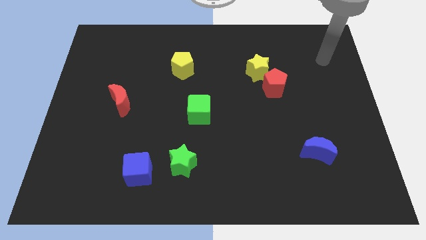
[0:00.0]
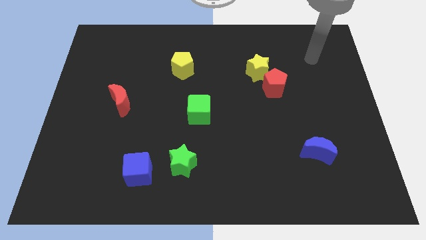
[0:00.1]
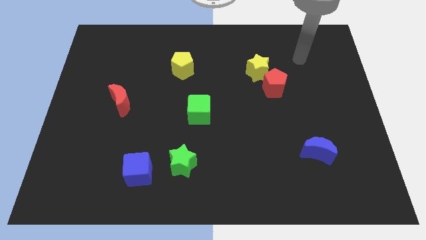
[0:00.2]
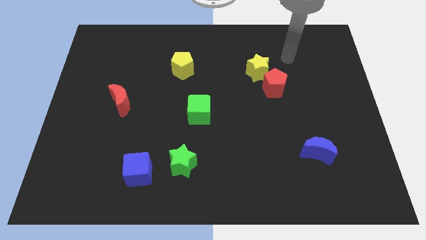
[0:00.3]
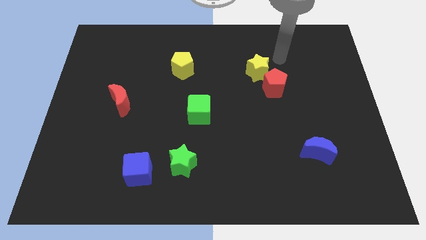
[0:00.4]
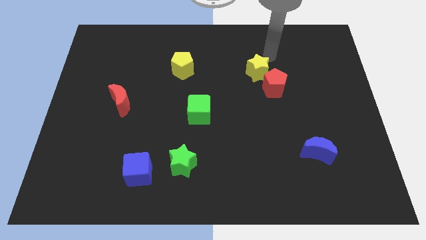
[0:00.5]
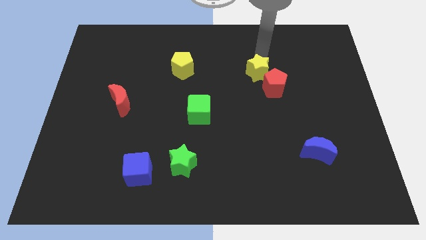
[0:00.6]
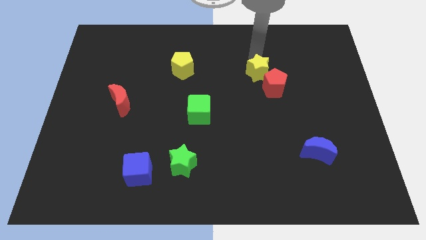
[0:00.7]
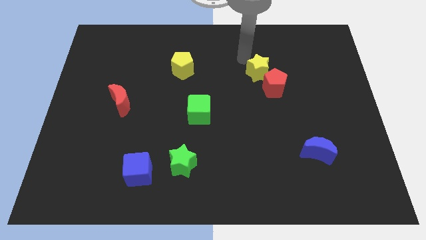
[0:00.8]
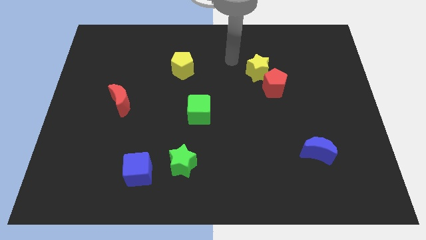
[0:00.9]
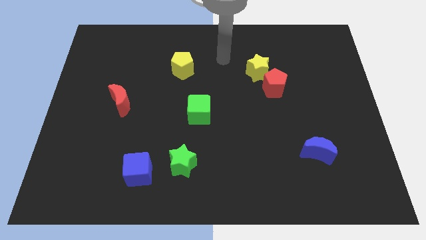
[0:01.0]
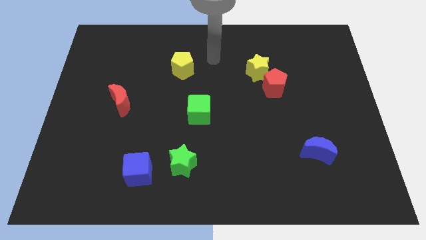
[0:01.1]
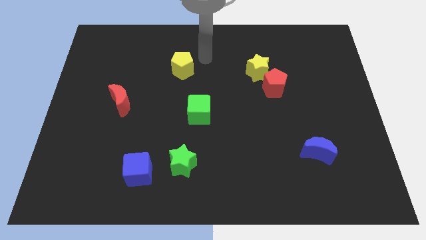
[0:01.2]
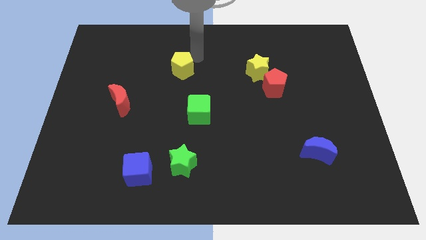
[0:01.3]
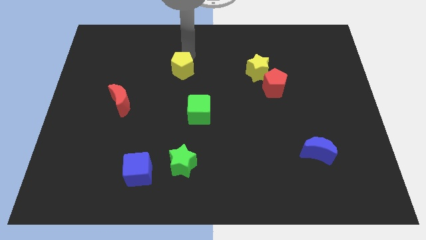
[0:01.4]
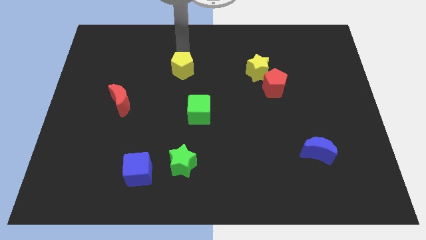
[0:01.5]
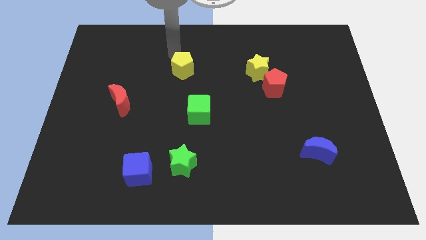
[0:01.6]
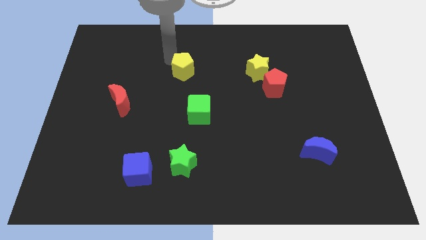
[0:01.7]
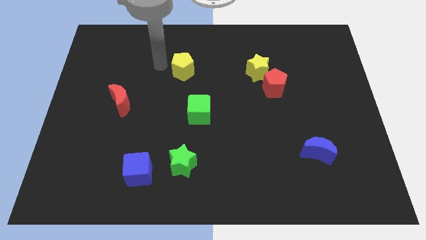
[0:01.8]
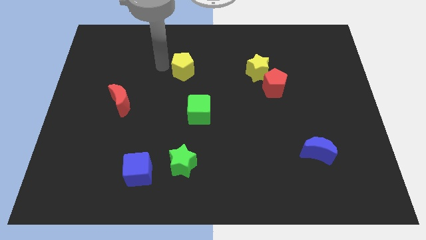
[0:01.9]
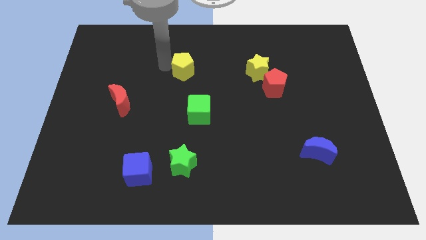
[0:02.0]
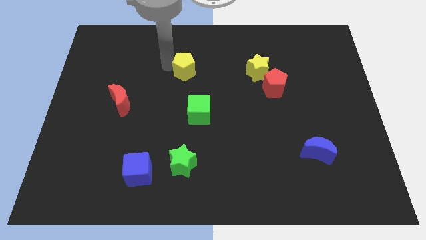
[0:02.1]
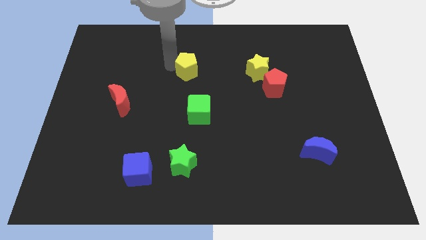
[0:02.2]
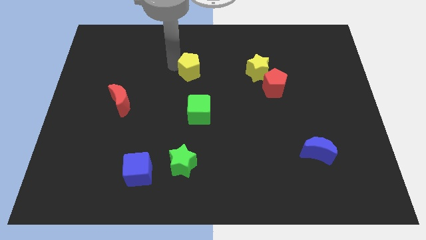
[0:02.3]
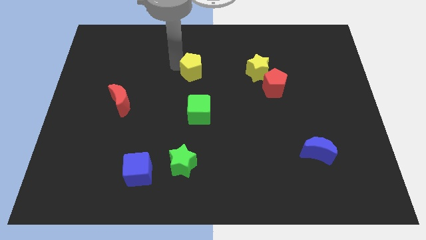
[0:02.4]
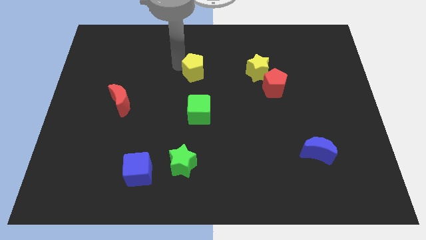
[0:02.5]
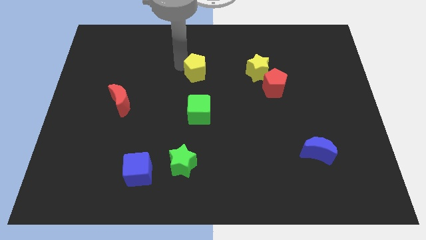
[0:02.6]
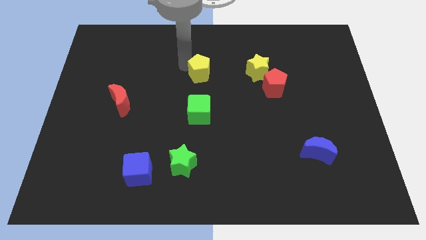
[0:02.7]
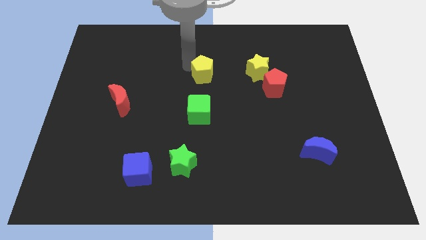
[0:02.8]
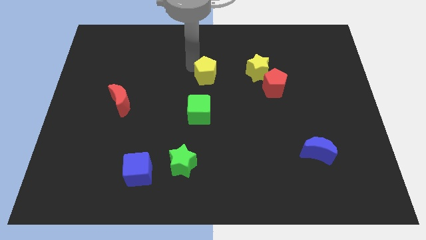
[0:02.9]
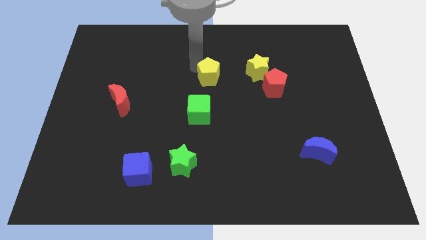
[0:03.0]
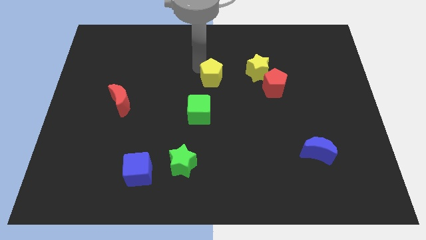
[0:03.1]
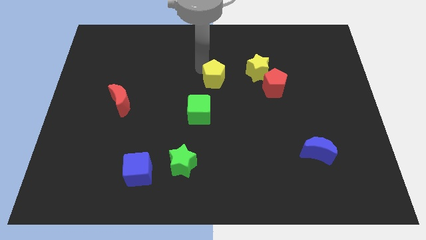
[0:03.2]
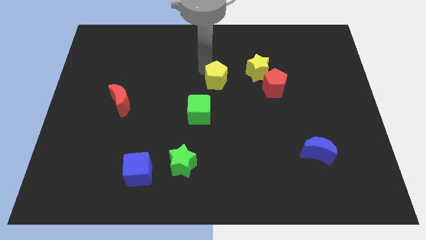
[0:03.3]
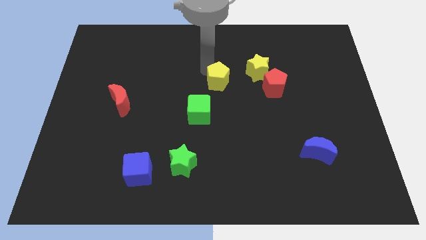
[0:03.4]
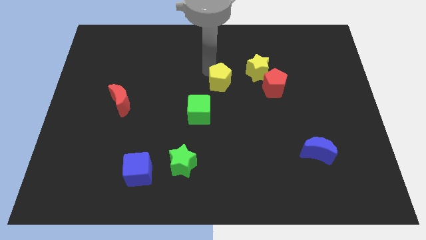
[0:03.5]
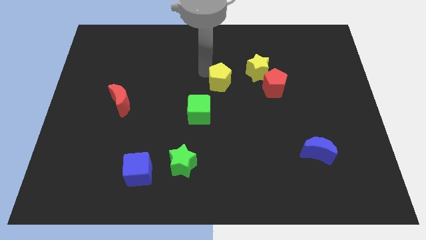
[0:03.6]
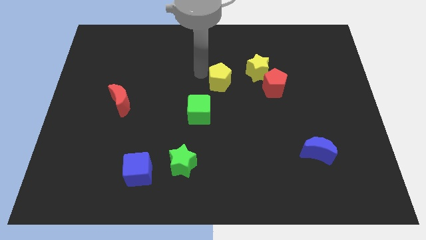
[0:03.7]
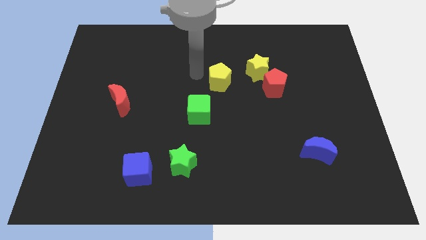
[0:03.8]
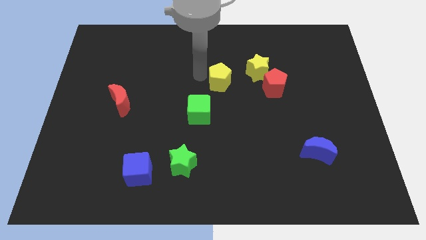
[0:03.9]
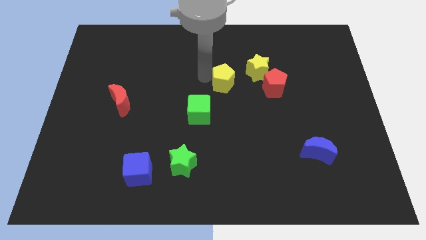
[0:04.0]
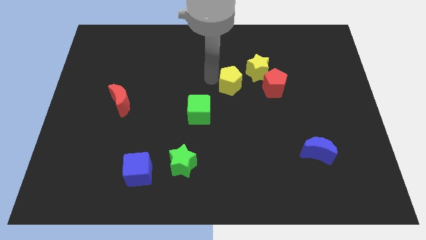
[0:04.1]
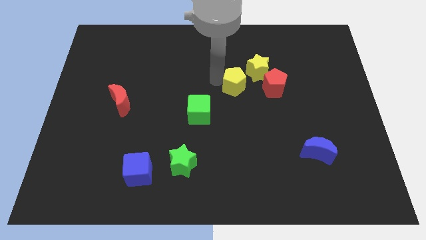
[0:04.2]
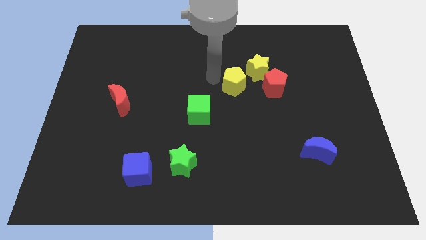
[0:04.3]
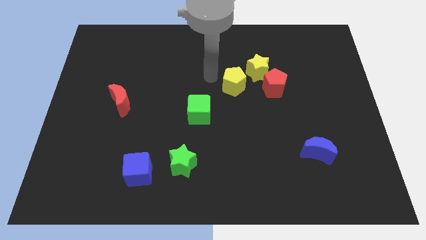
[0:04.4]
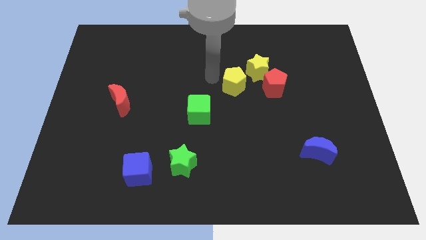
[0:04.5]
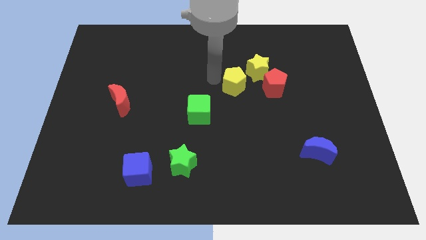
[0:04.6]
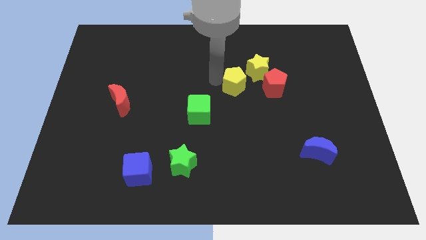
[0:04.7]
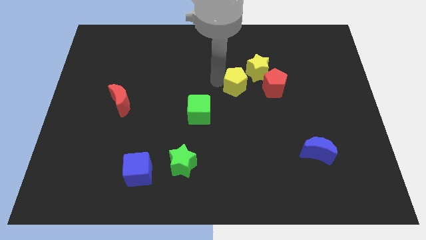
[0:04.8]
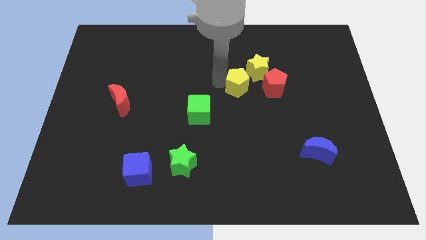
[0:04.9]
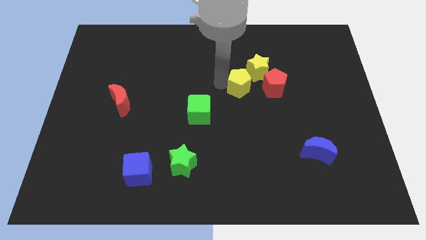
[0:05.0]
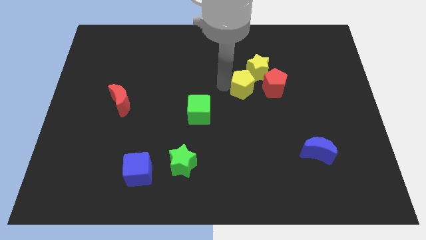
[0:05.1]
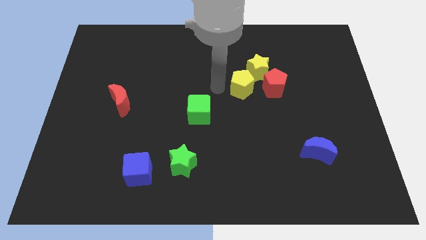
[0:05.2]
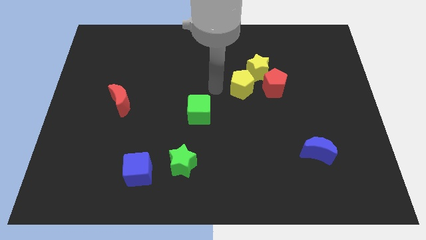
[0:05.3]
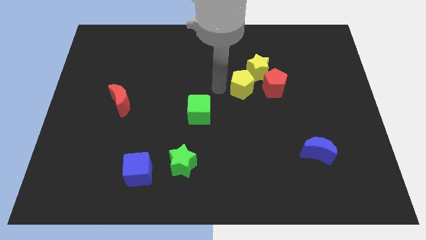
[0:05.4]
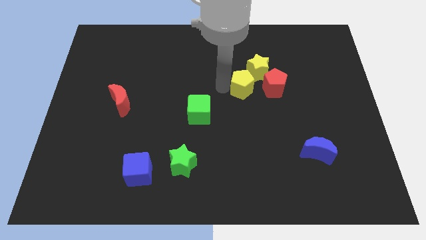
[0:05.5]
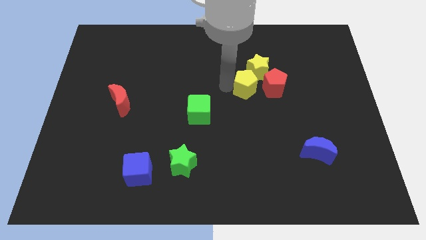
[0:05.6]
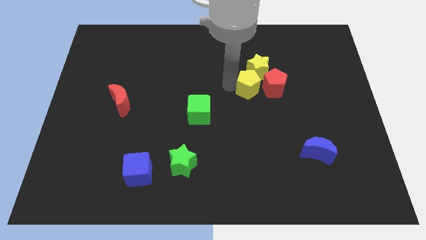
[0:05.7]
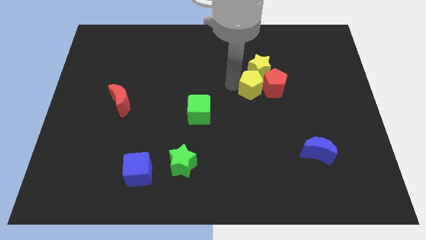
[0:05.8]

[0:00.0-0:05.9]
put the yellow pentagon next to the red pentagon

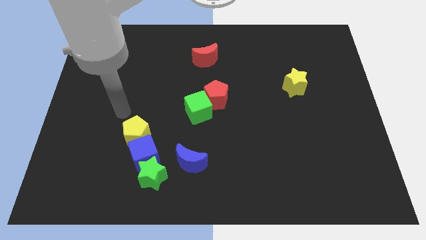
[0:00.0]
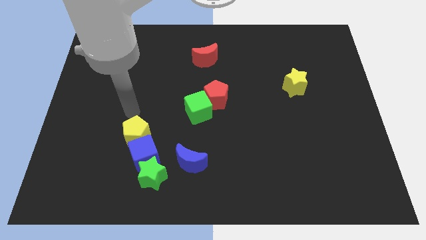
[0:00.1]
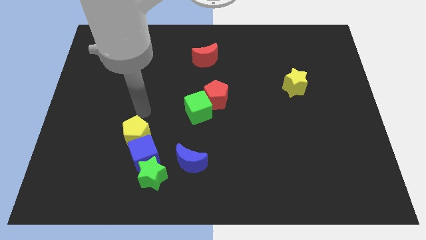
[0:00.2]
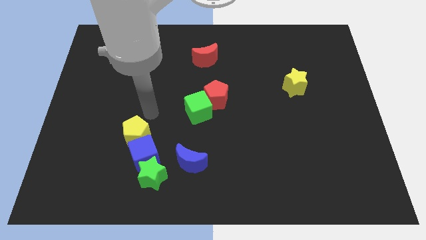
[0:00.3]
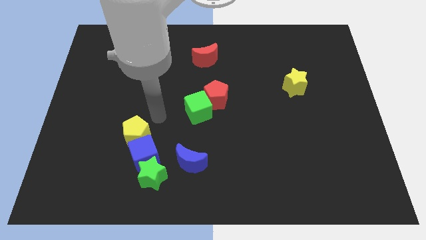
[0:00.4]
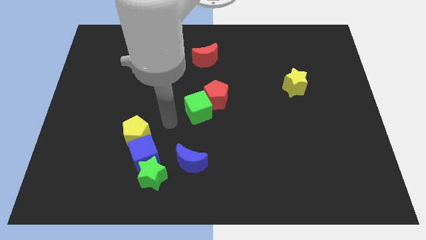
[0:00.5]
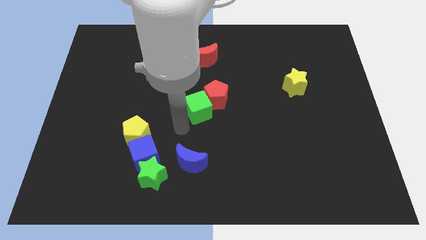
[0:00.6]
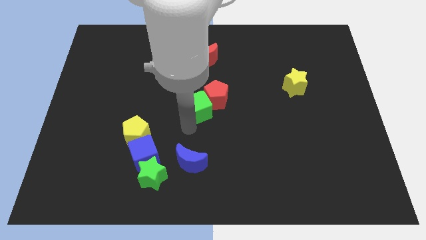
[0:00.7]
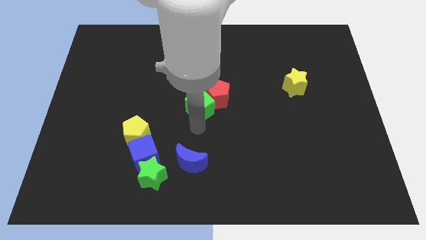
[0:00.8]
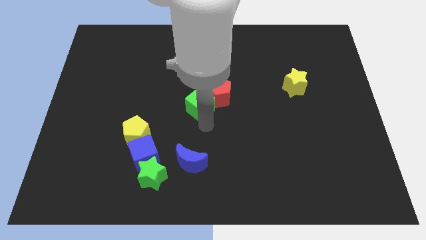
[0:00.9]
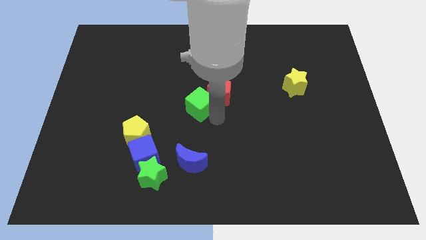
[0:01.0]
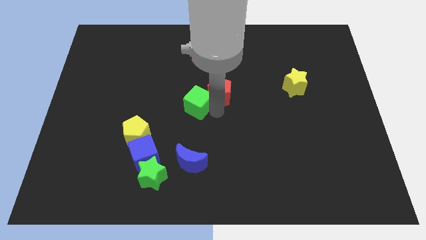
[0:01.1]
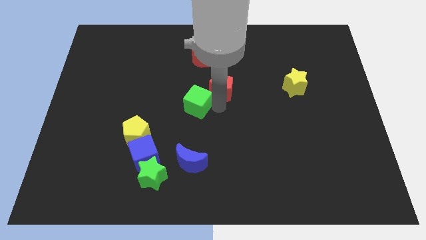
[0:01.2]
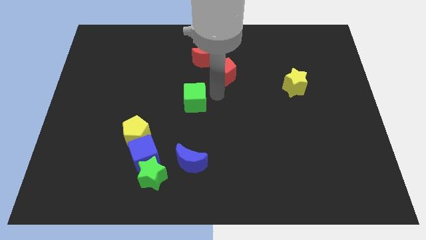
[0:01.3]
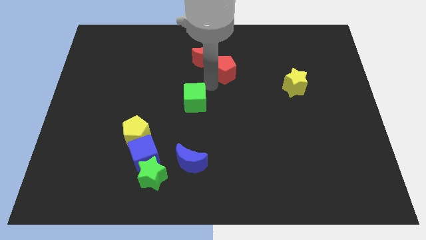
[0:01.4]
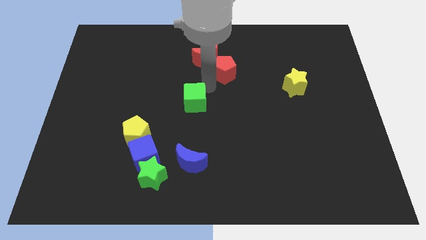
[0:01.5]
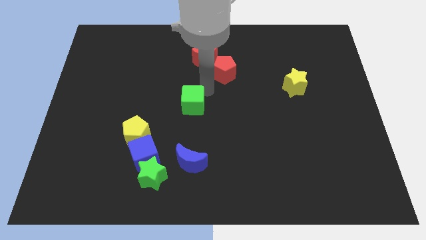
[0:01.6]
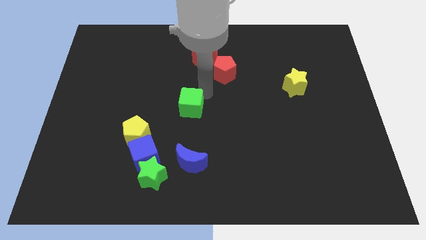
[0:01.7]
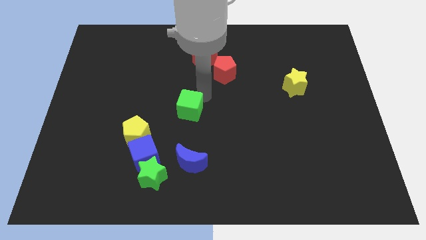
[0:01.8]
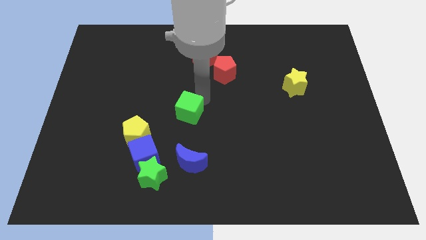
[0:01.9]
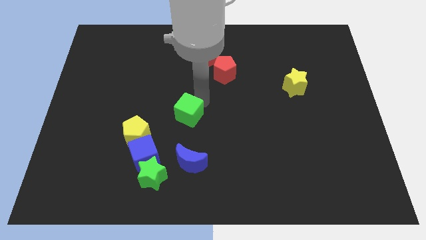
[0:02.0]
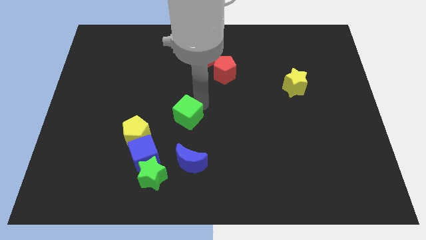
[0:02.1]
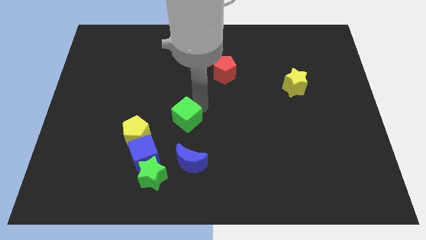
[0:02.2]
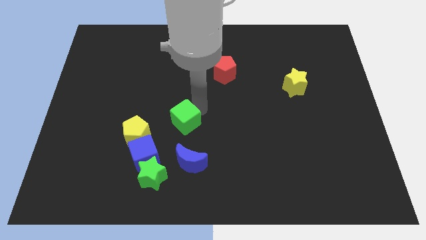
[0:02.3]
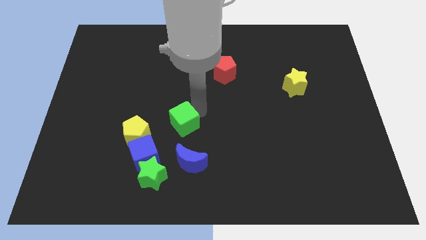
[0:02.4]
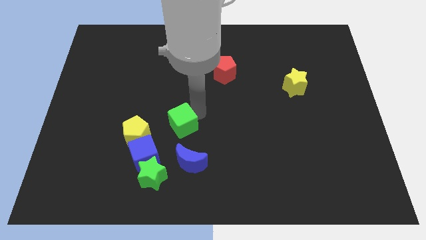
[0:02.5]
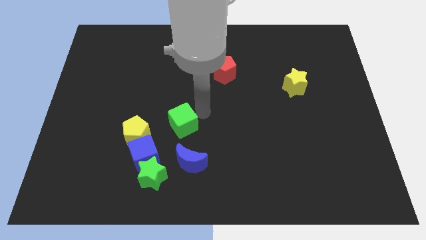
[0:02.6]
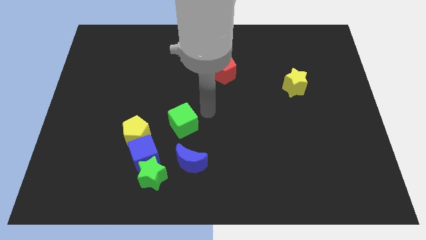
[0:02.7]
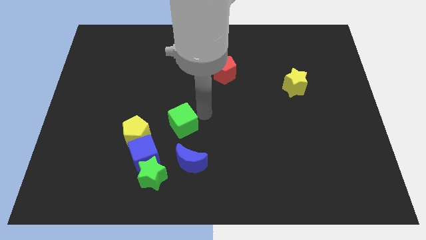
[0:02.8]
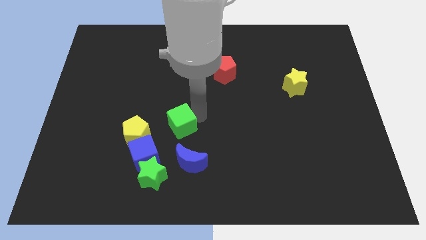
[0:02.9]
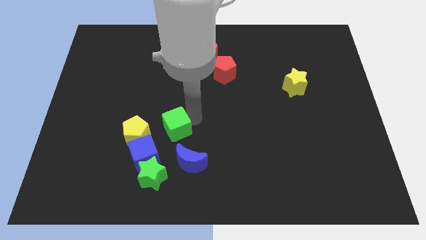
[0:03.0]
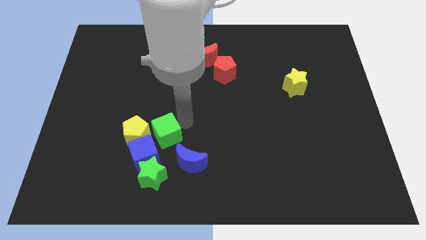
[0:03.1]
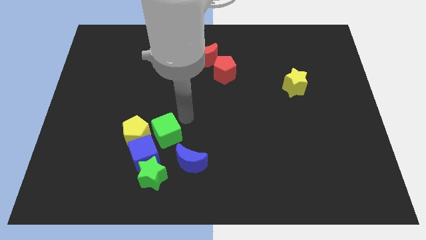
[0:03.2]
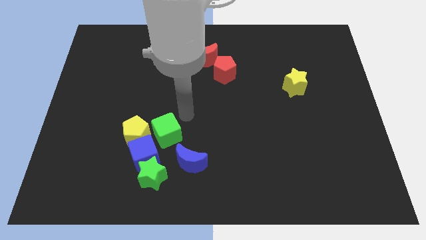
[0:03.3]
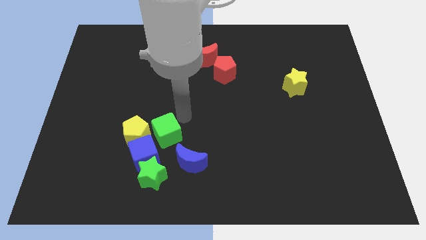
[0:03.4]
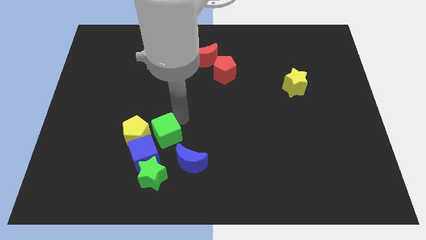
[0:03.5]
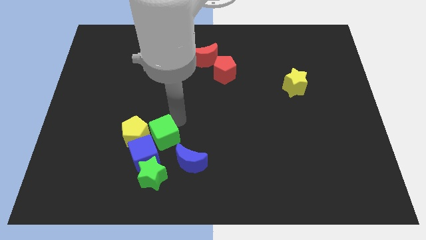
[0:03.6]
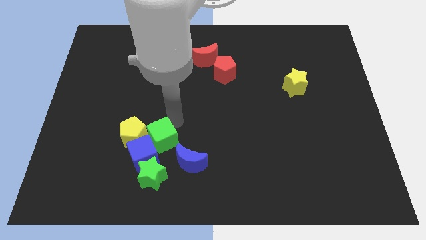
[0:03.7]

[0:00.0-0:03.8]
move the green cube towards the blue cube
